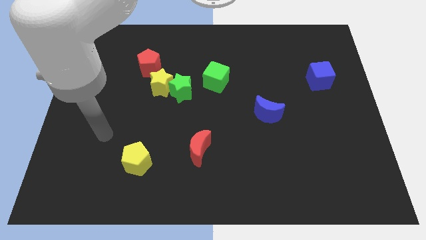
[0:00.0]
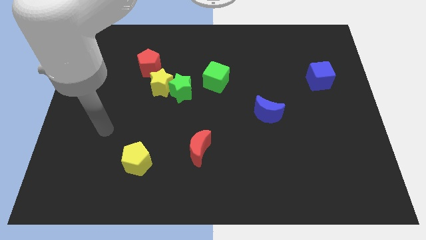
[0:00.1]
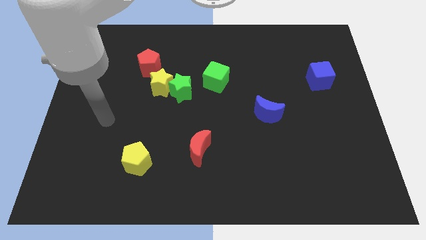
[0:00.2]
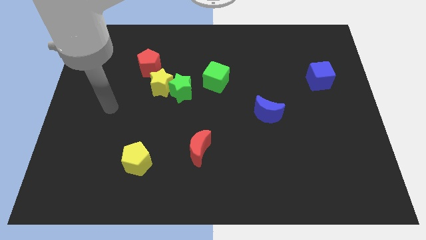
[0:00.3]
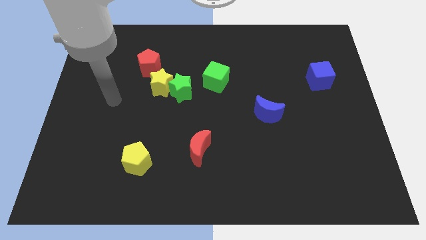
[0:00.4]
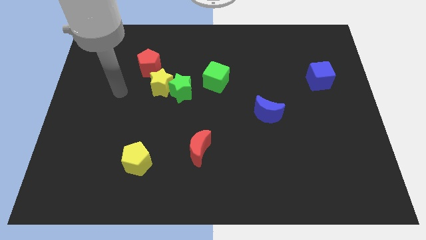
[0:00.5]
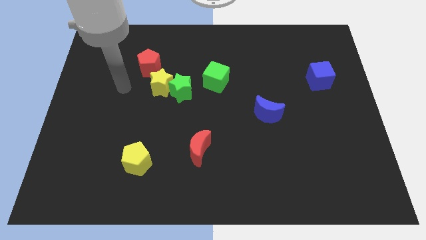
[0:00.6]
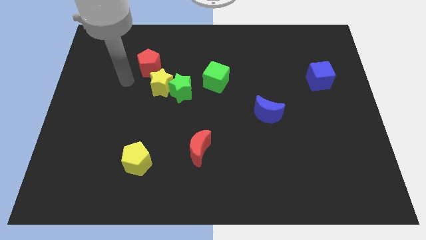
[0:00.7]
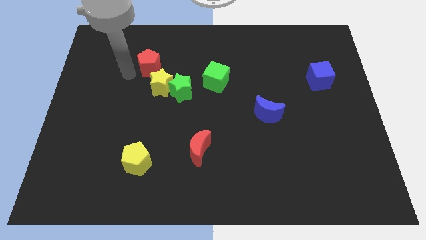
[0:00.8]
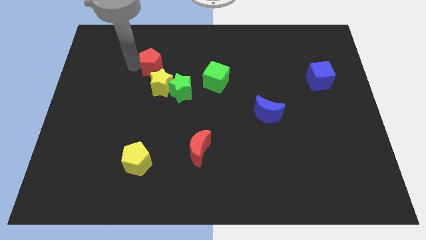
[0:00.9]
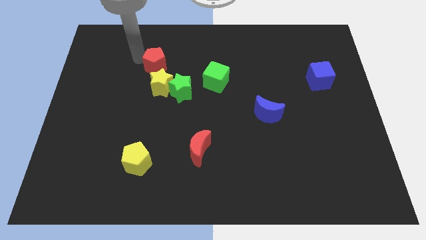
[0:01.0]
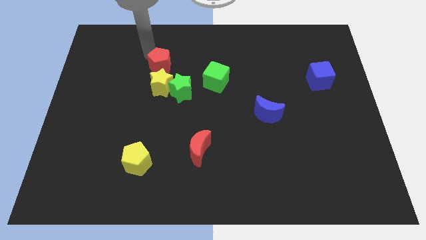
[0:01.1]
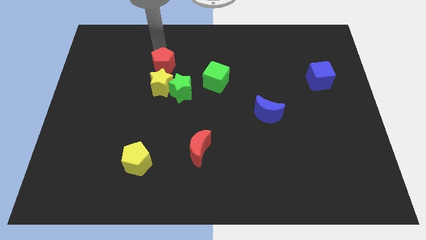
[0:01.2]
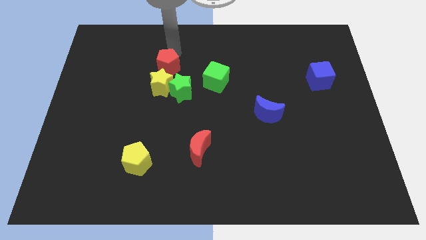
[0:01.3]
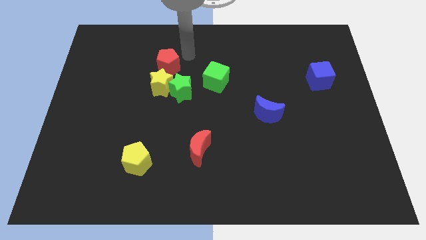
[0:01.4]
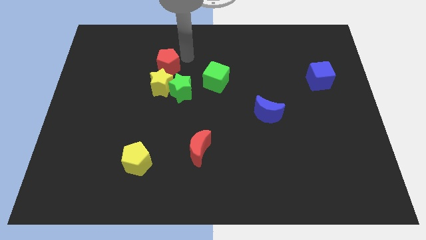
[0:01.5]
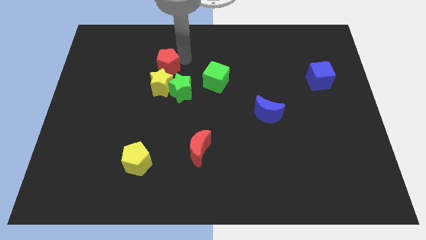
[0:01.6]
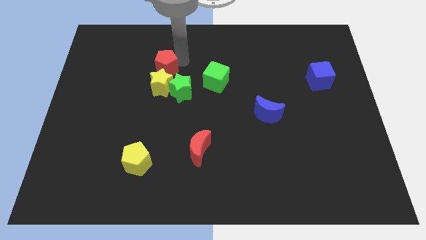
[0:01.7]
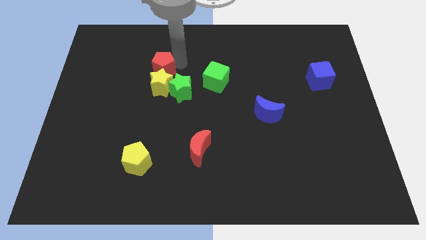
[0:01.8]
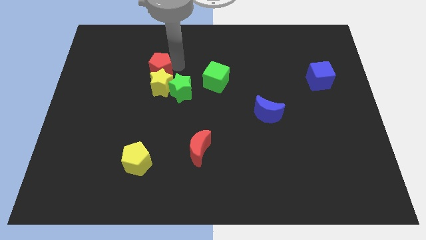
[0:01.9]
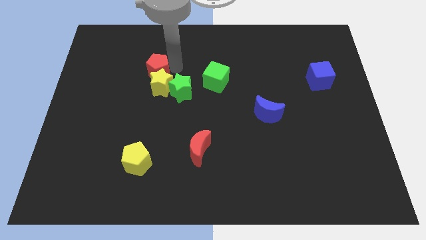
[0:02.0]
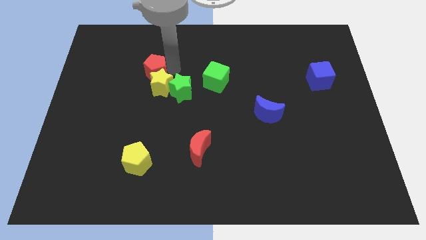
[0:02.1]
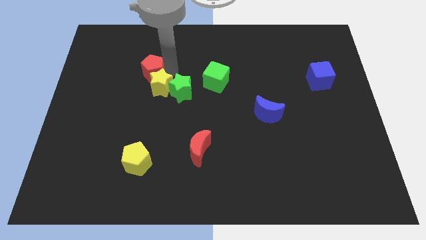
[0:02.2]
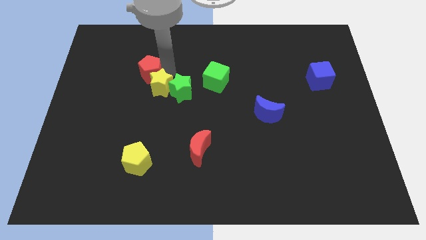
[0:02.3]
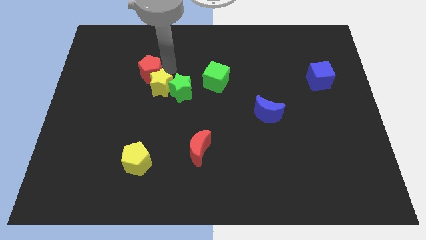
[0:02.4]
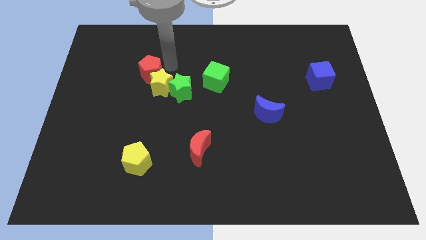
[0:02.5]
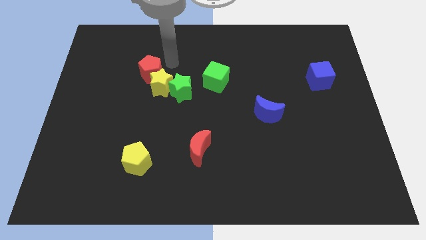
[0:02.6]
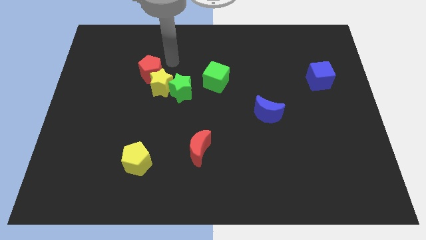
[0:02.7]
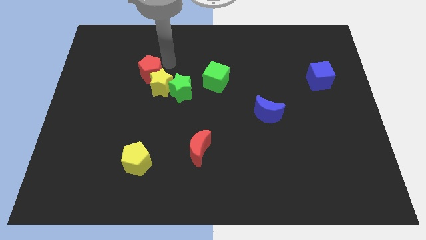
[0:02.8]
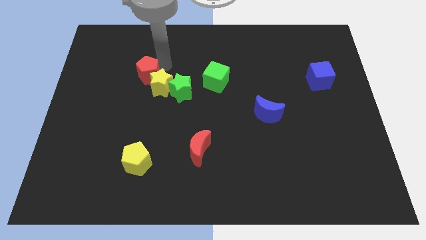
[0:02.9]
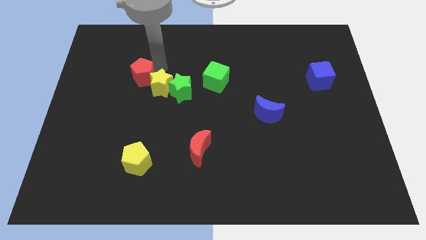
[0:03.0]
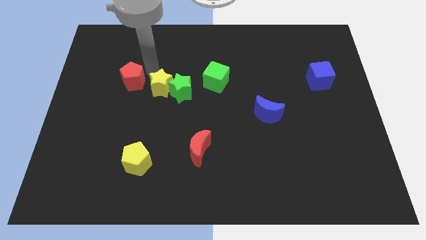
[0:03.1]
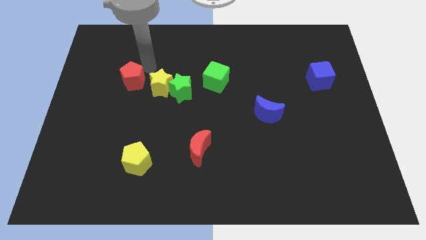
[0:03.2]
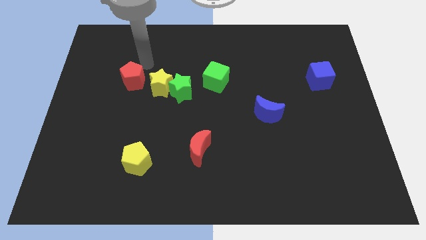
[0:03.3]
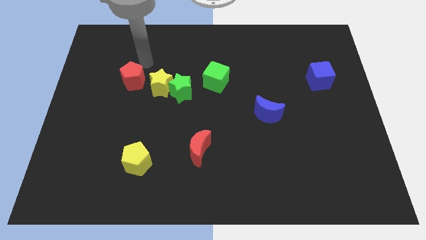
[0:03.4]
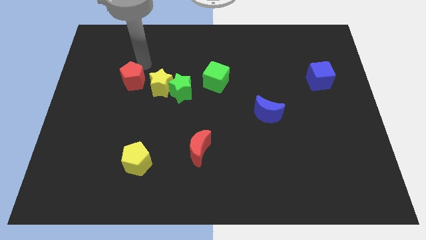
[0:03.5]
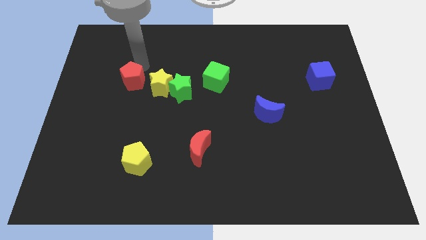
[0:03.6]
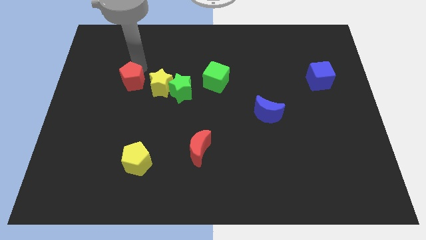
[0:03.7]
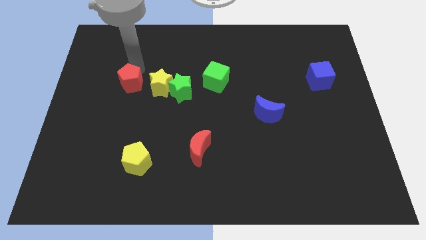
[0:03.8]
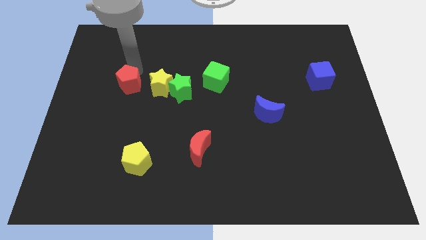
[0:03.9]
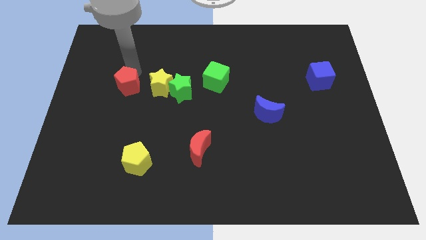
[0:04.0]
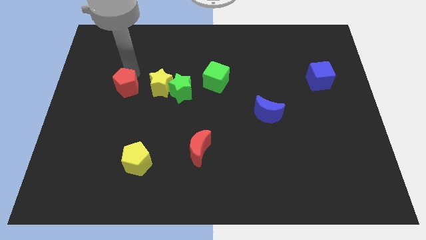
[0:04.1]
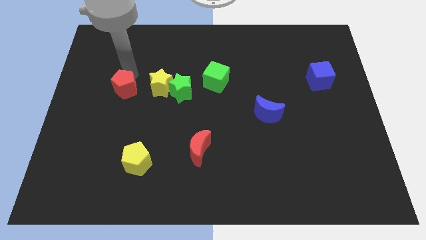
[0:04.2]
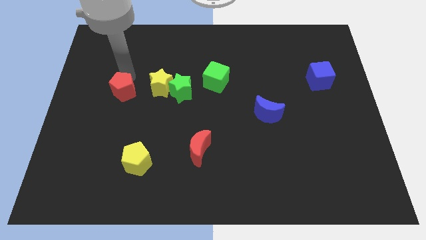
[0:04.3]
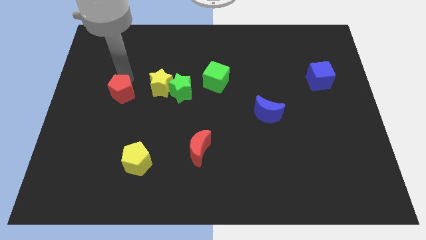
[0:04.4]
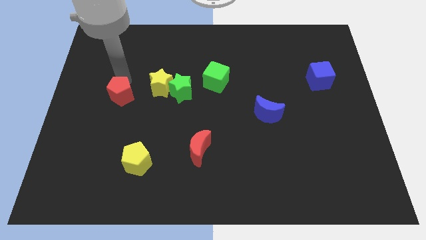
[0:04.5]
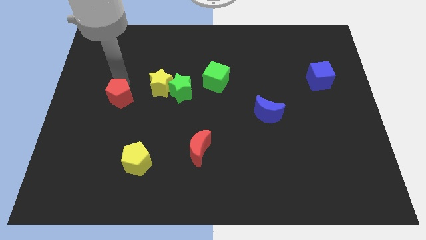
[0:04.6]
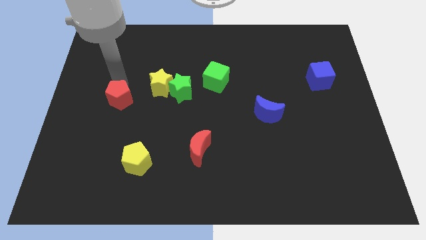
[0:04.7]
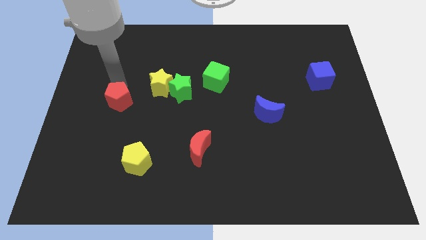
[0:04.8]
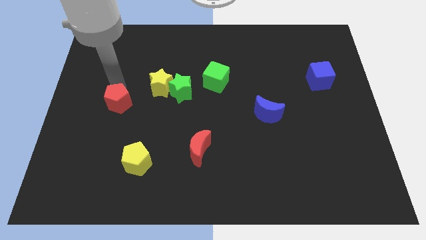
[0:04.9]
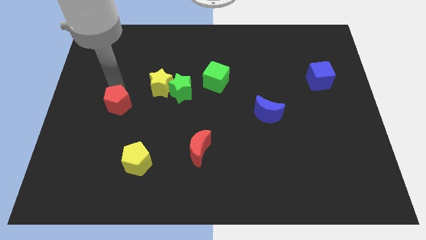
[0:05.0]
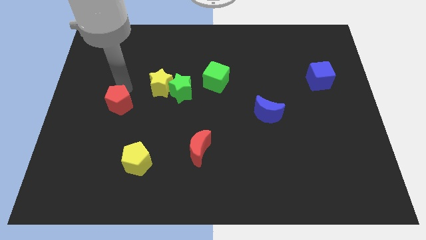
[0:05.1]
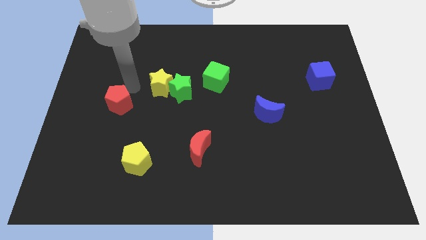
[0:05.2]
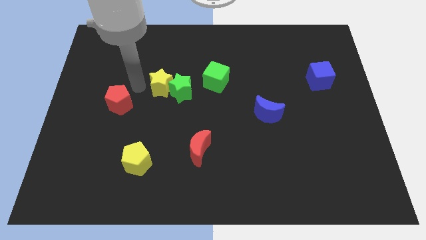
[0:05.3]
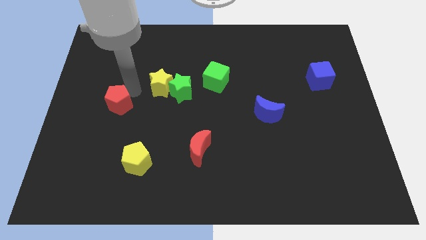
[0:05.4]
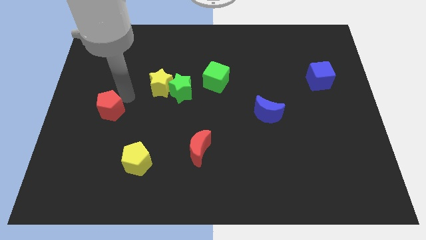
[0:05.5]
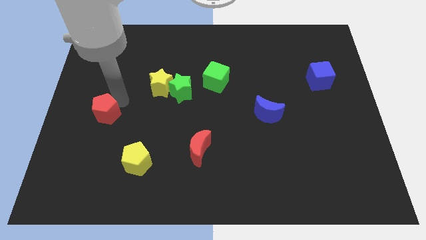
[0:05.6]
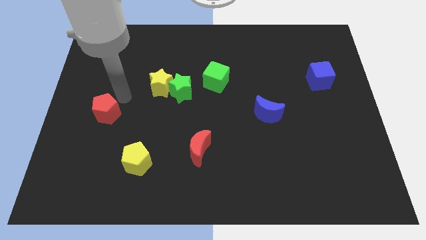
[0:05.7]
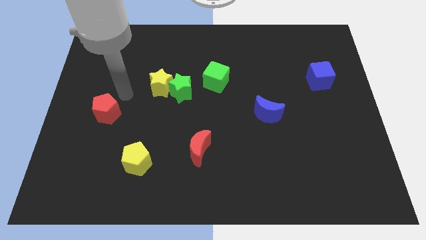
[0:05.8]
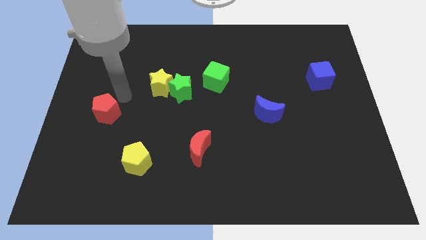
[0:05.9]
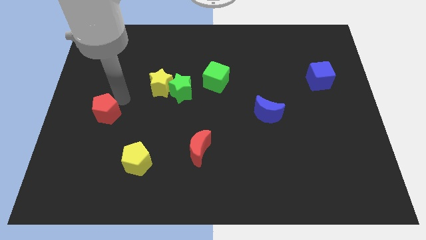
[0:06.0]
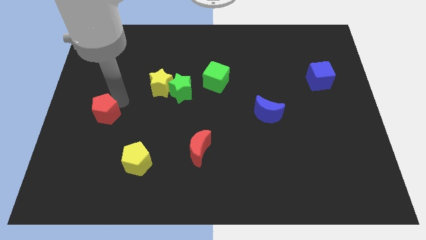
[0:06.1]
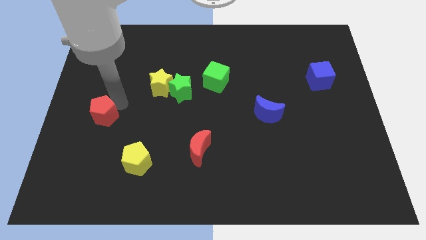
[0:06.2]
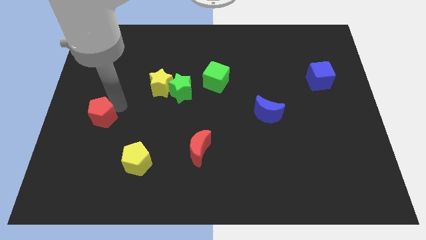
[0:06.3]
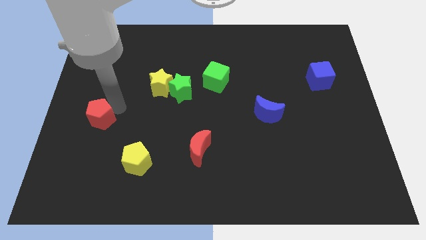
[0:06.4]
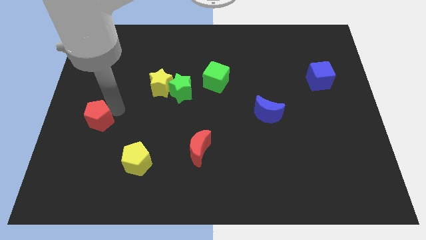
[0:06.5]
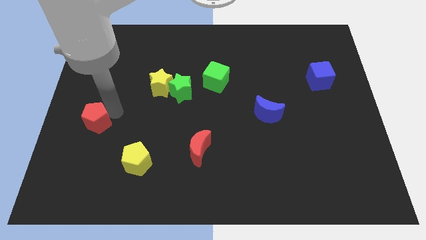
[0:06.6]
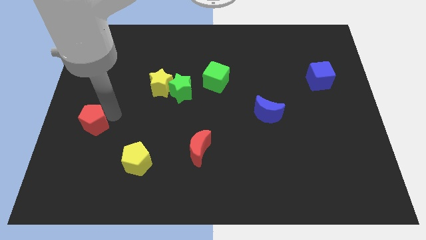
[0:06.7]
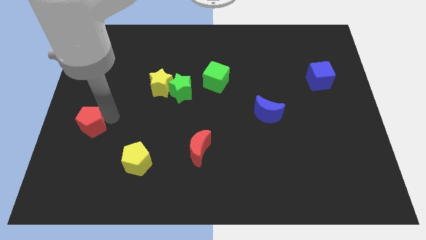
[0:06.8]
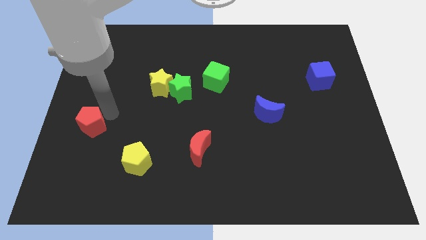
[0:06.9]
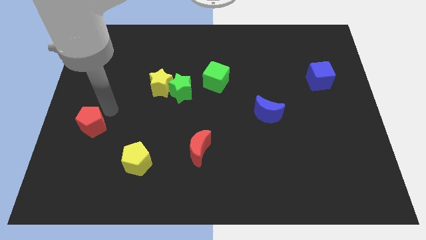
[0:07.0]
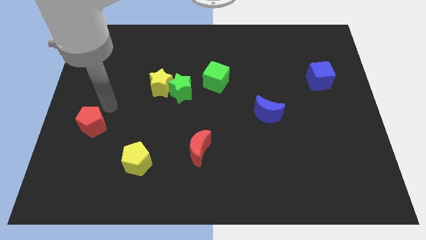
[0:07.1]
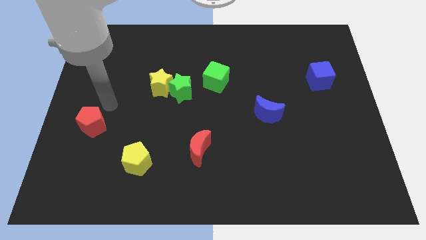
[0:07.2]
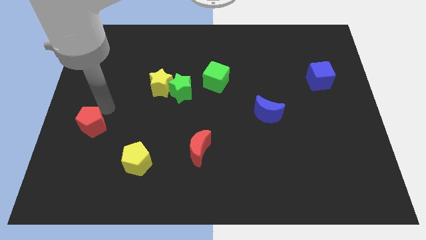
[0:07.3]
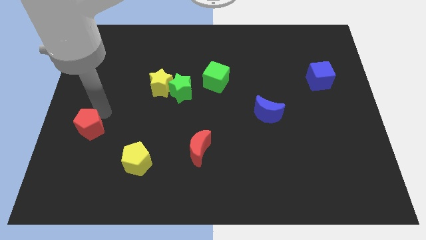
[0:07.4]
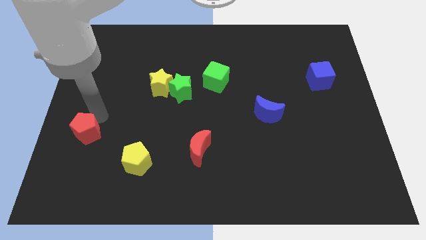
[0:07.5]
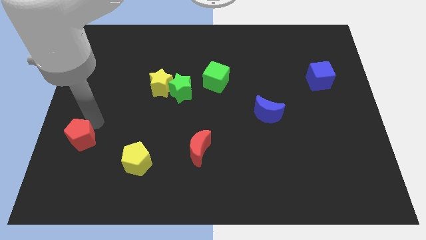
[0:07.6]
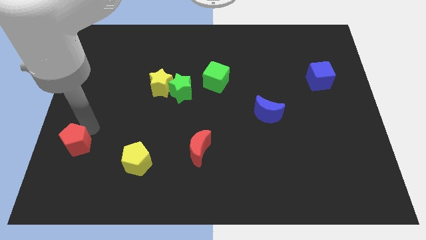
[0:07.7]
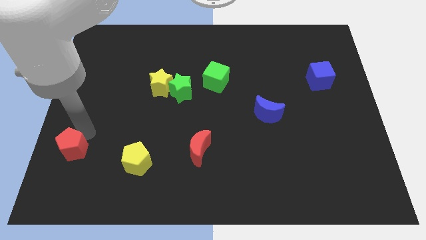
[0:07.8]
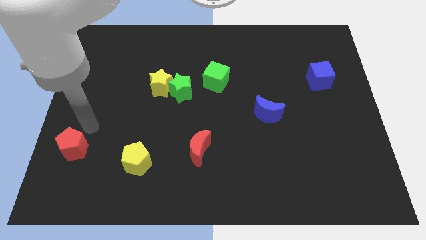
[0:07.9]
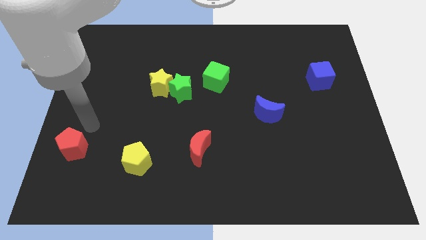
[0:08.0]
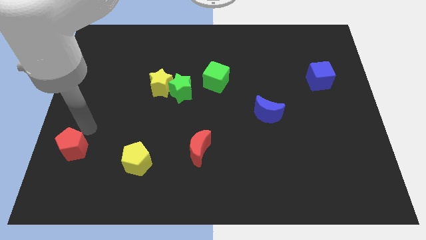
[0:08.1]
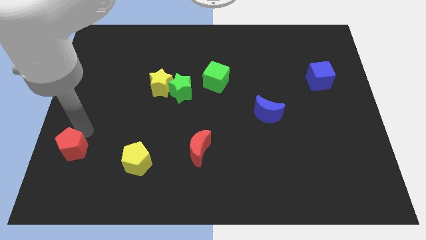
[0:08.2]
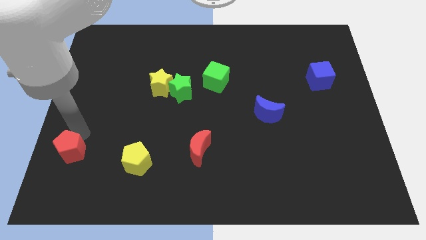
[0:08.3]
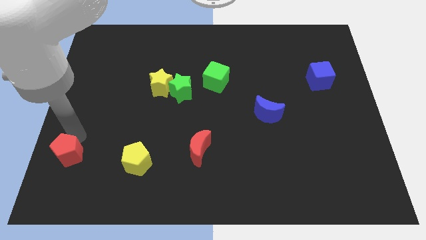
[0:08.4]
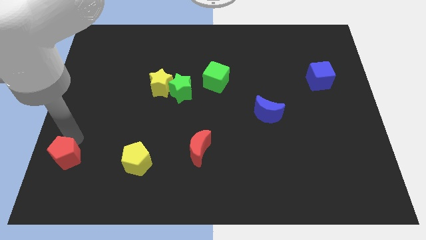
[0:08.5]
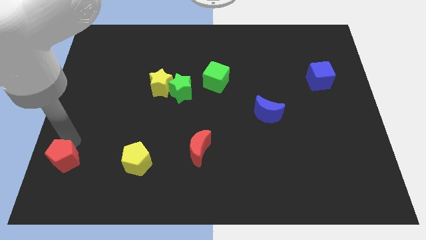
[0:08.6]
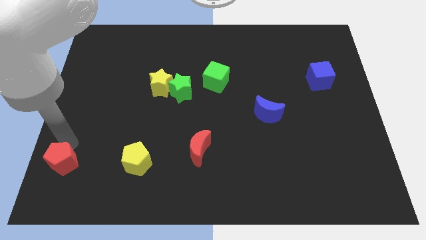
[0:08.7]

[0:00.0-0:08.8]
push the red pentagon to the bottom left corner
